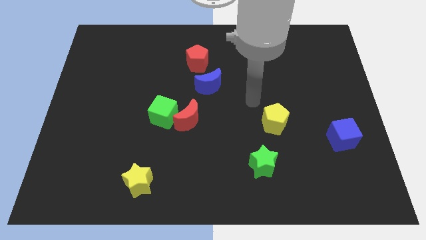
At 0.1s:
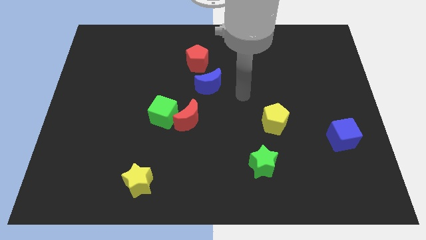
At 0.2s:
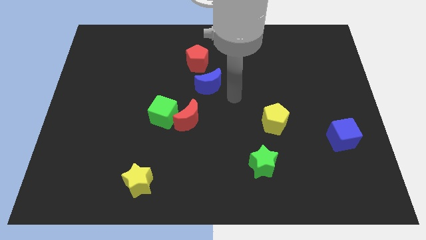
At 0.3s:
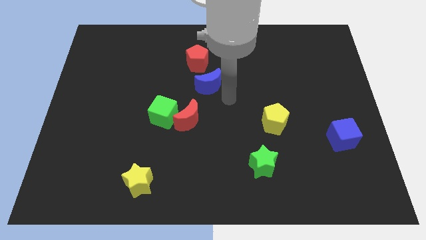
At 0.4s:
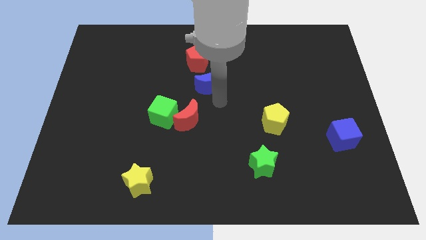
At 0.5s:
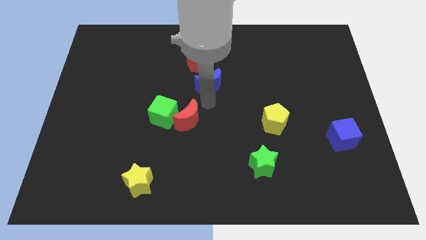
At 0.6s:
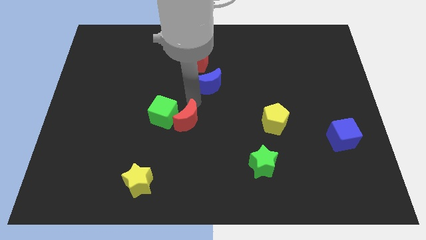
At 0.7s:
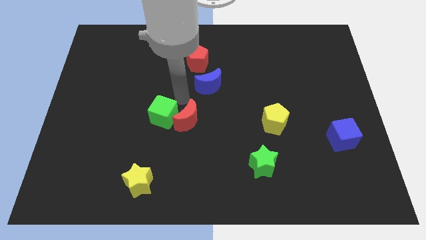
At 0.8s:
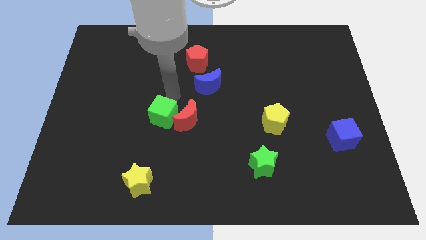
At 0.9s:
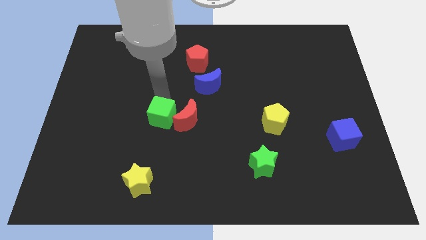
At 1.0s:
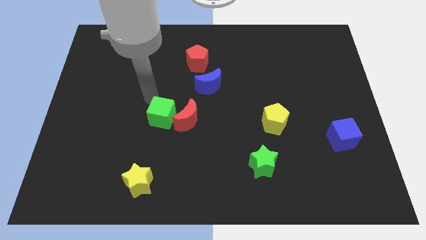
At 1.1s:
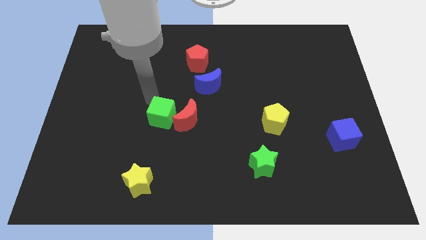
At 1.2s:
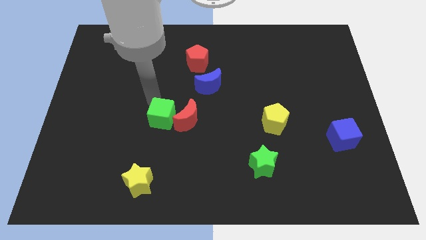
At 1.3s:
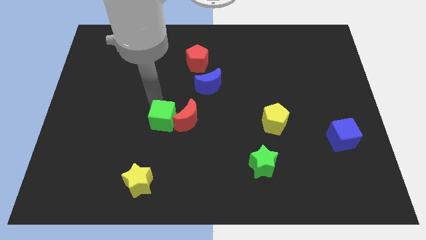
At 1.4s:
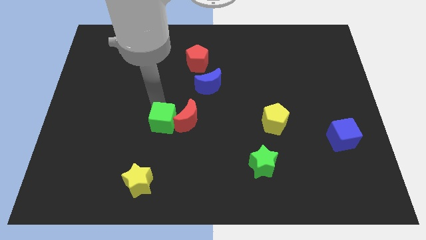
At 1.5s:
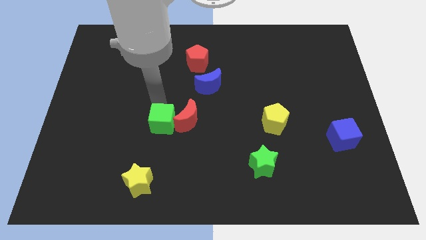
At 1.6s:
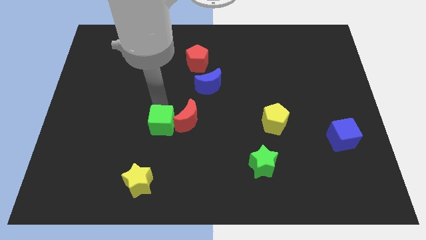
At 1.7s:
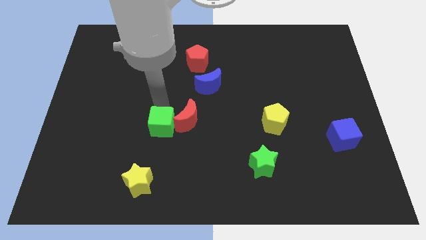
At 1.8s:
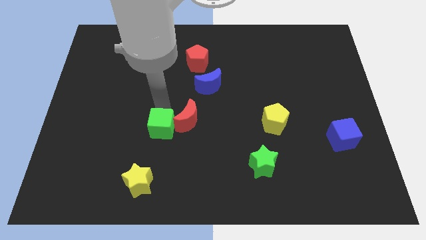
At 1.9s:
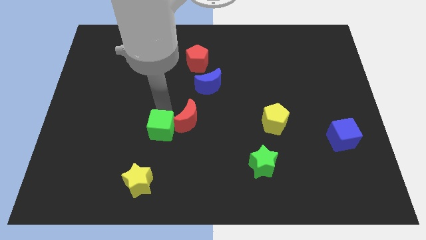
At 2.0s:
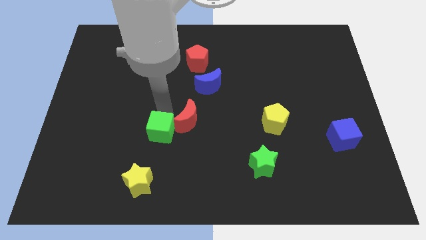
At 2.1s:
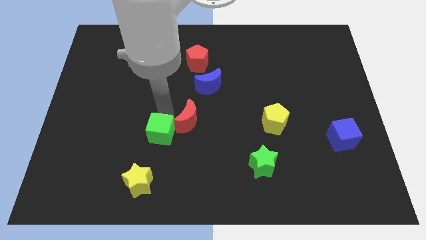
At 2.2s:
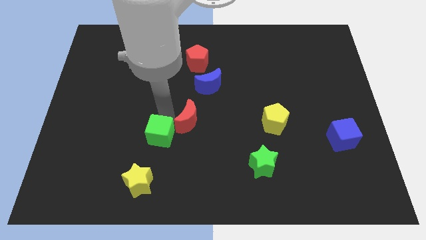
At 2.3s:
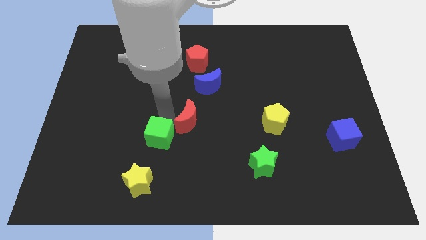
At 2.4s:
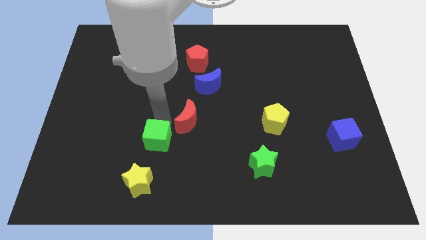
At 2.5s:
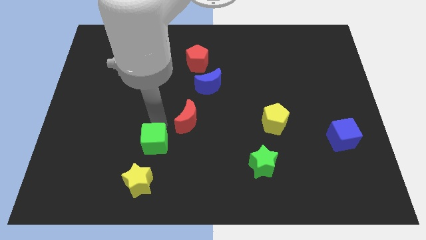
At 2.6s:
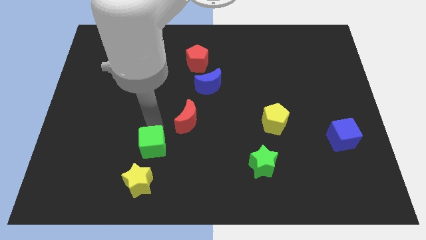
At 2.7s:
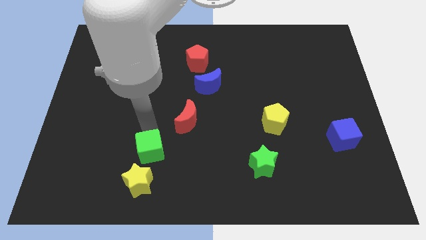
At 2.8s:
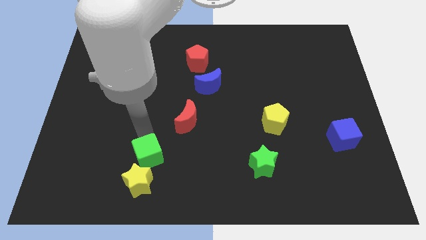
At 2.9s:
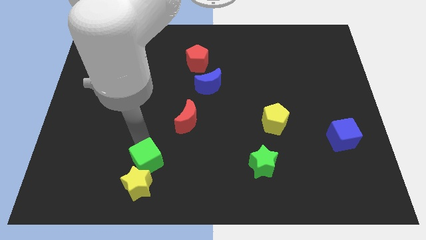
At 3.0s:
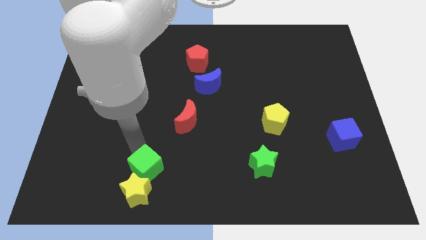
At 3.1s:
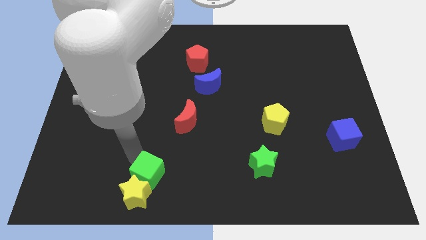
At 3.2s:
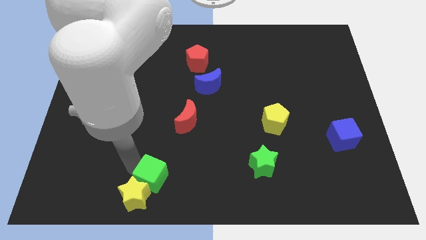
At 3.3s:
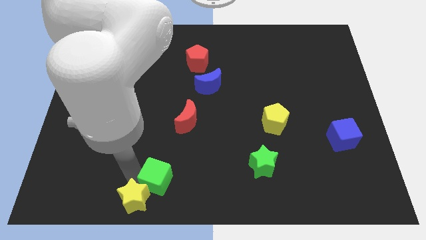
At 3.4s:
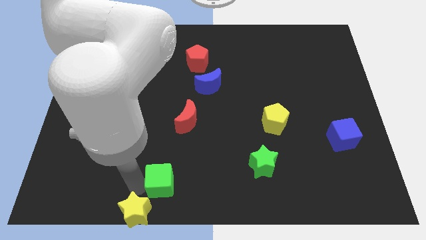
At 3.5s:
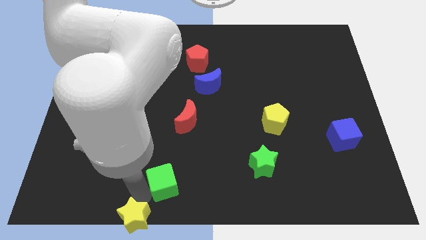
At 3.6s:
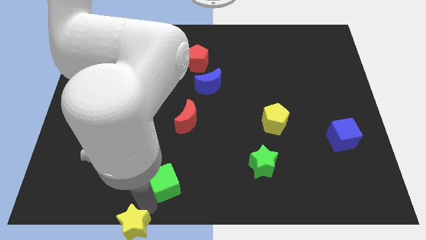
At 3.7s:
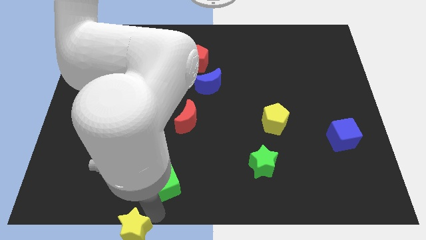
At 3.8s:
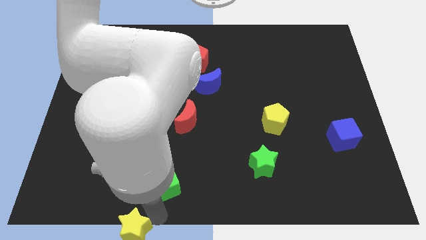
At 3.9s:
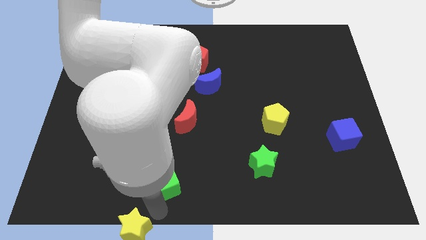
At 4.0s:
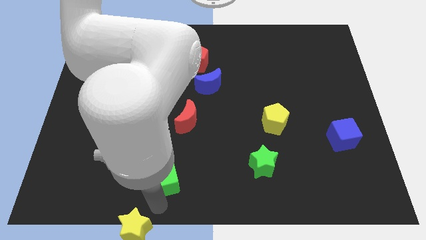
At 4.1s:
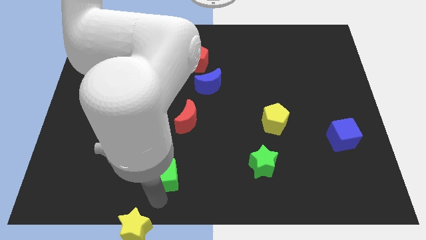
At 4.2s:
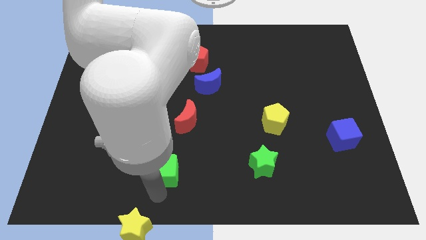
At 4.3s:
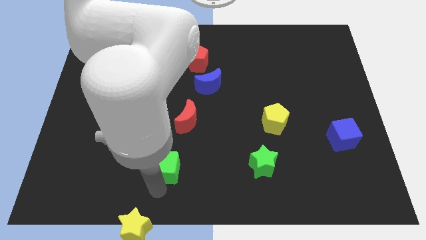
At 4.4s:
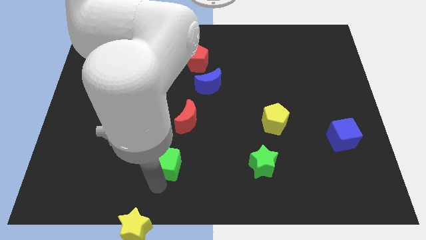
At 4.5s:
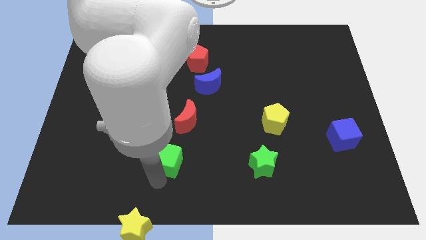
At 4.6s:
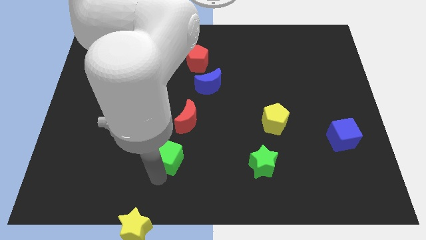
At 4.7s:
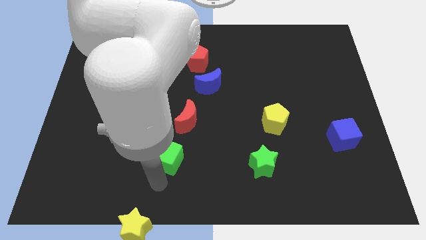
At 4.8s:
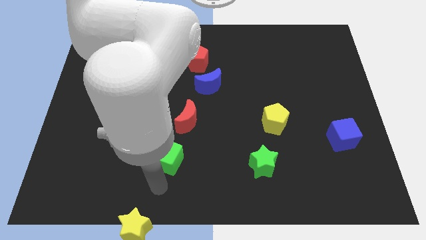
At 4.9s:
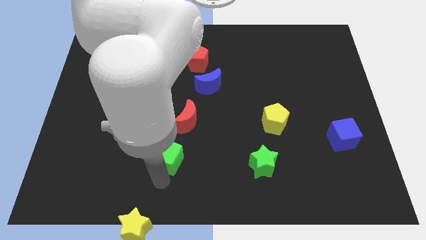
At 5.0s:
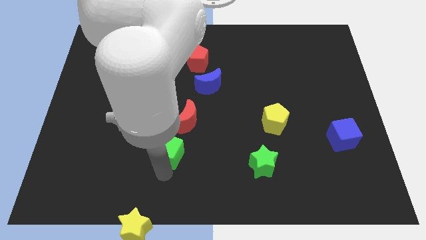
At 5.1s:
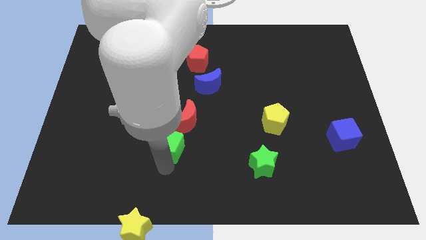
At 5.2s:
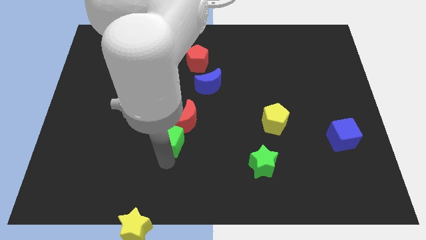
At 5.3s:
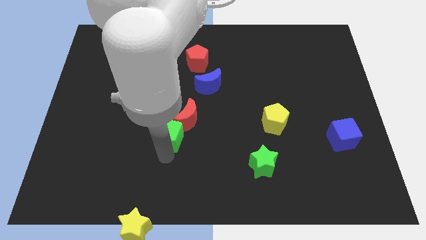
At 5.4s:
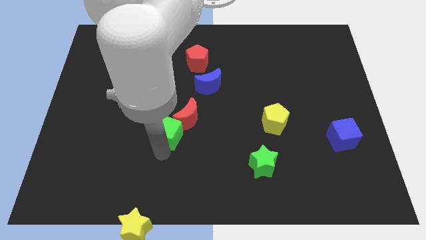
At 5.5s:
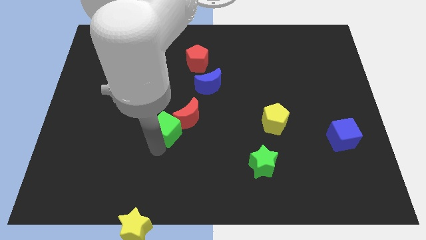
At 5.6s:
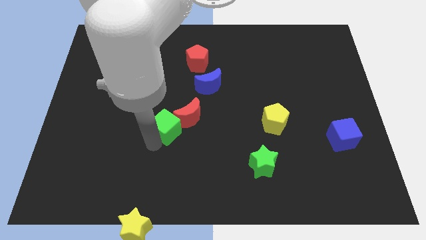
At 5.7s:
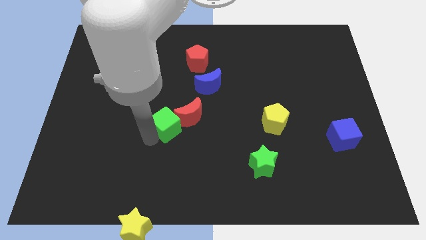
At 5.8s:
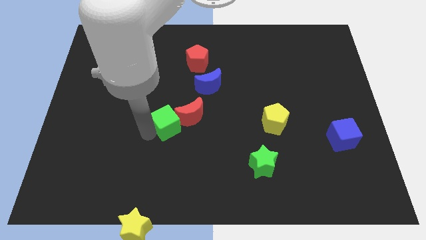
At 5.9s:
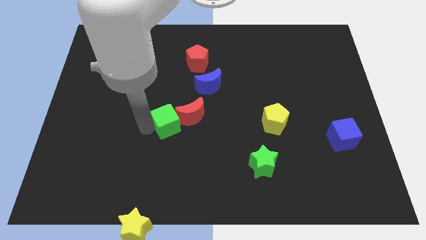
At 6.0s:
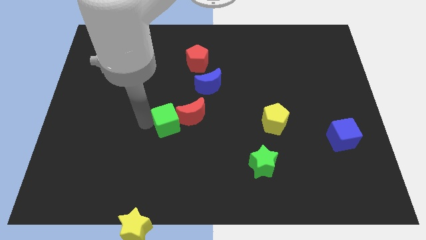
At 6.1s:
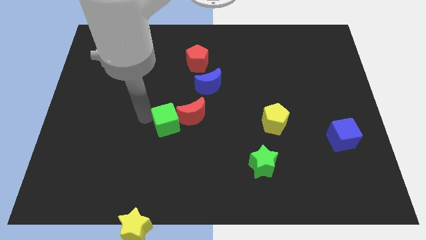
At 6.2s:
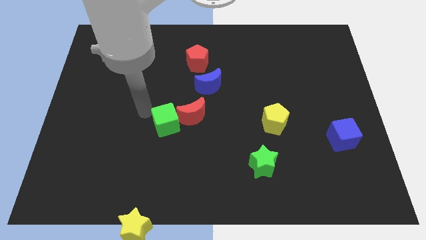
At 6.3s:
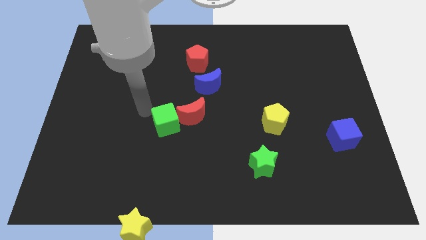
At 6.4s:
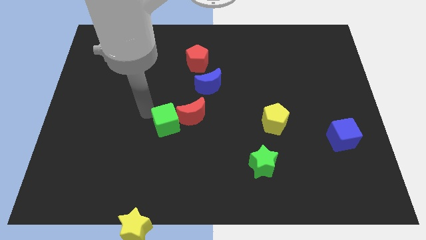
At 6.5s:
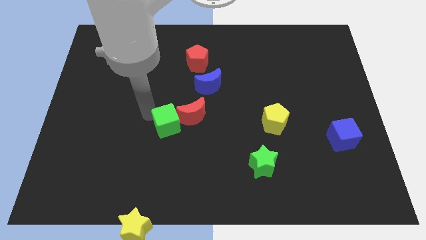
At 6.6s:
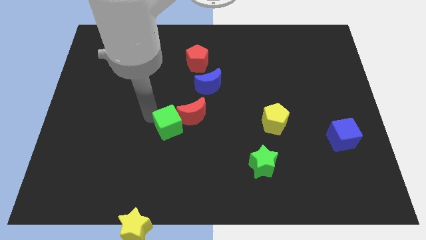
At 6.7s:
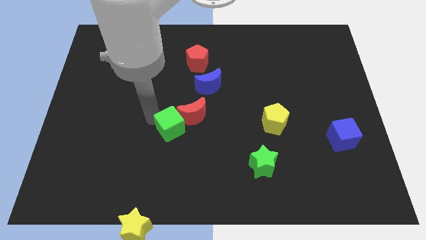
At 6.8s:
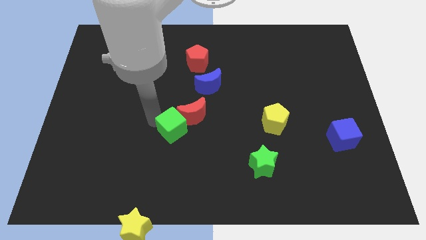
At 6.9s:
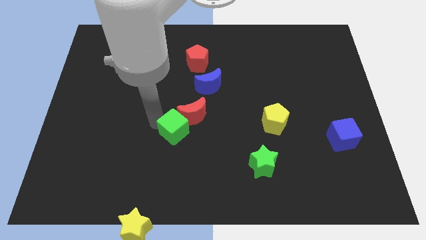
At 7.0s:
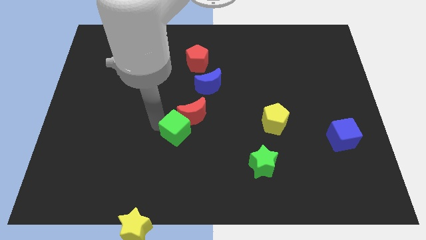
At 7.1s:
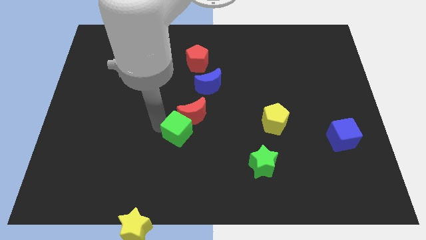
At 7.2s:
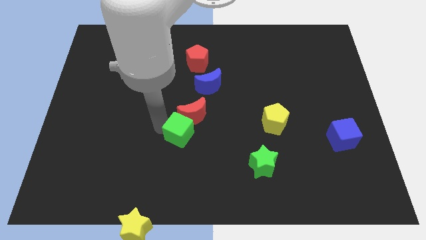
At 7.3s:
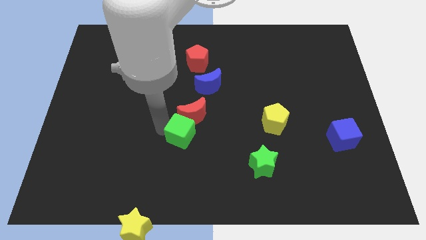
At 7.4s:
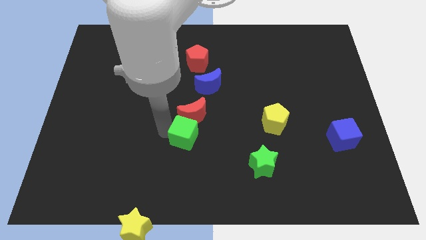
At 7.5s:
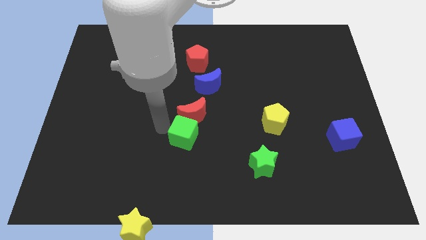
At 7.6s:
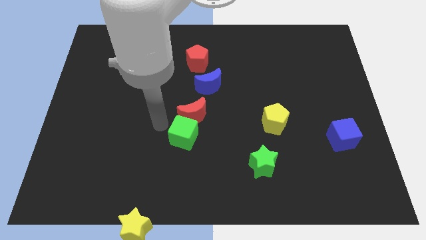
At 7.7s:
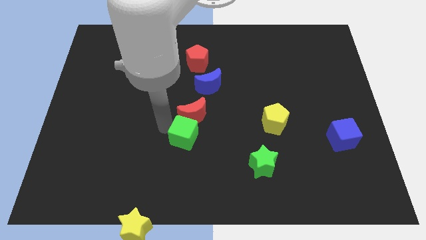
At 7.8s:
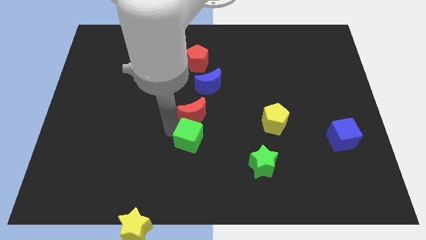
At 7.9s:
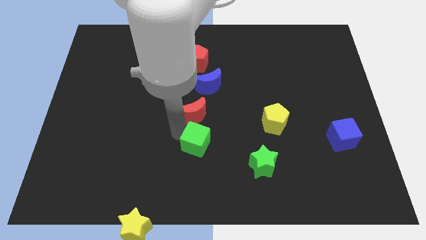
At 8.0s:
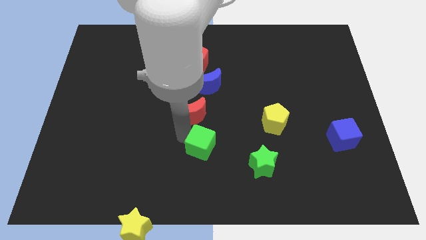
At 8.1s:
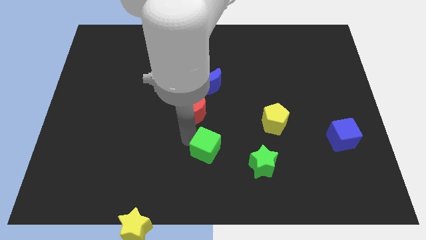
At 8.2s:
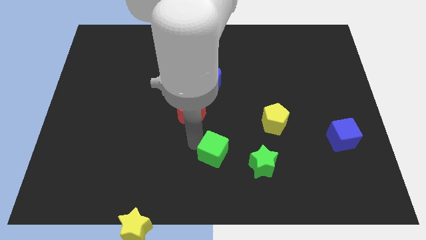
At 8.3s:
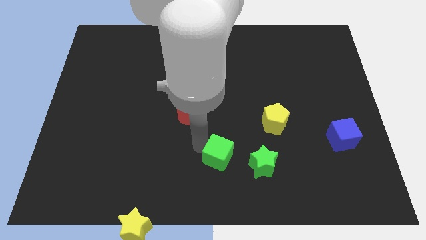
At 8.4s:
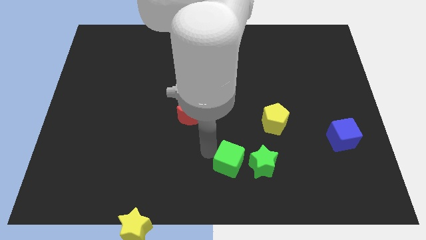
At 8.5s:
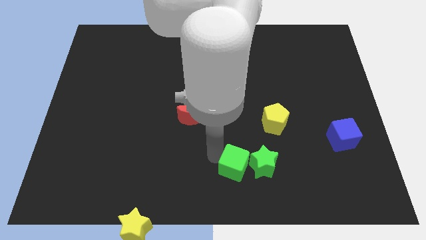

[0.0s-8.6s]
move the green cube to the green star
